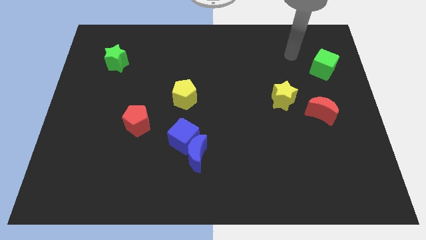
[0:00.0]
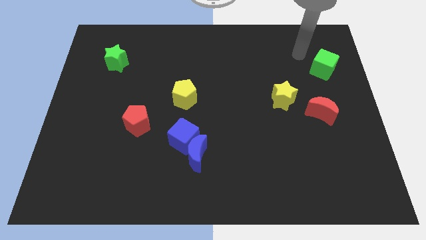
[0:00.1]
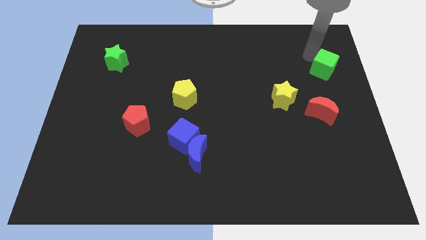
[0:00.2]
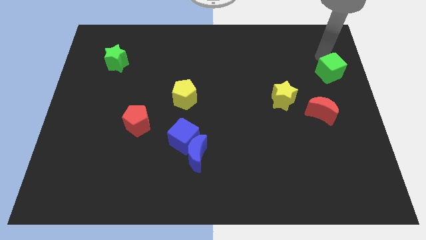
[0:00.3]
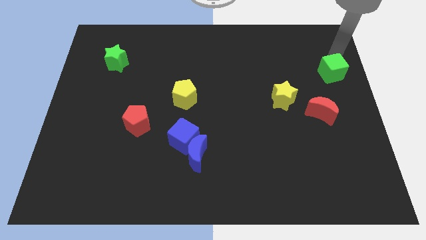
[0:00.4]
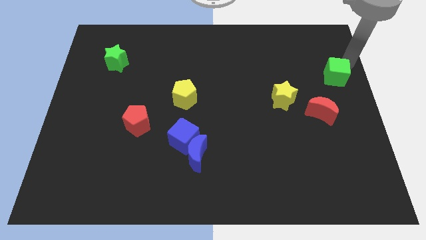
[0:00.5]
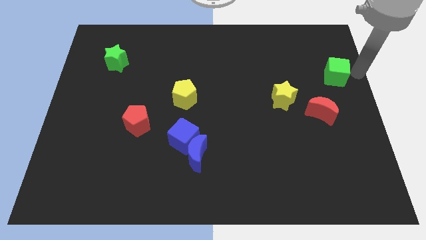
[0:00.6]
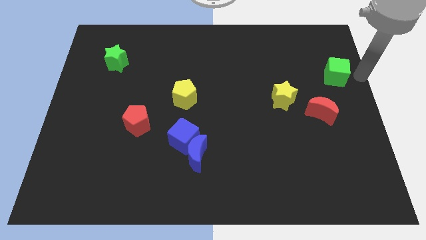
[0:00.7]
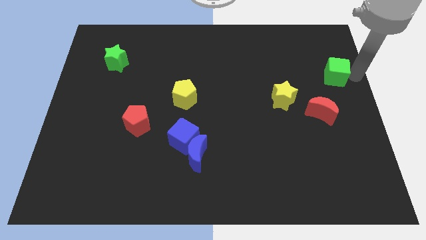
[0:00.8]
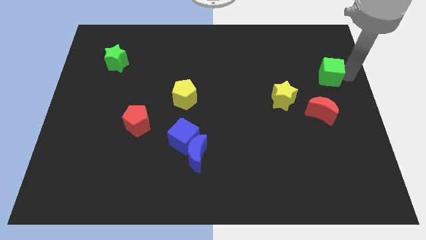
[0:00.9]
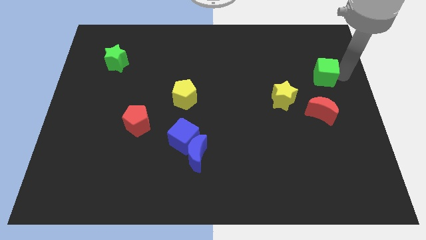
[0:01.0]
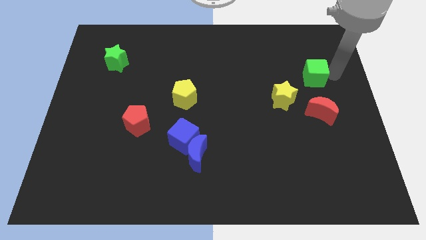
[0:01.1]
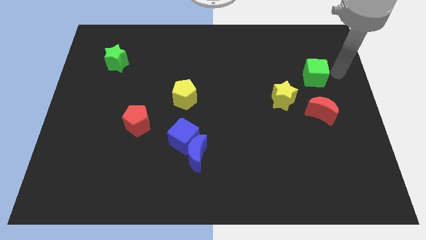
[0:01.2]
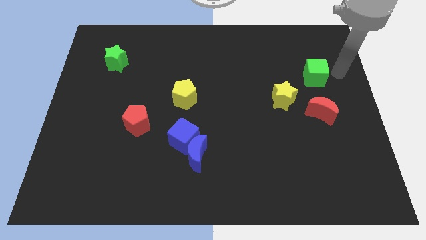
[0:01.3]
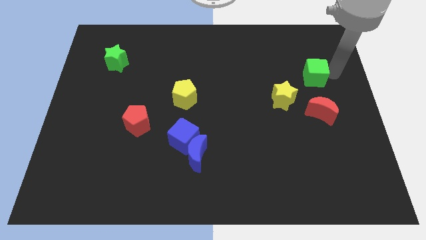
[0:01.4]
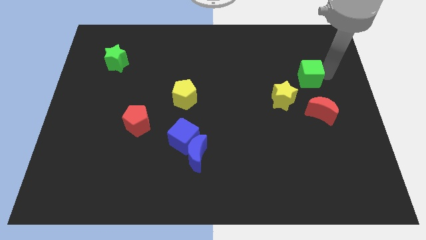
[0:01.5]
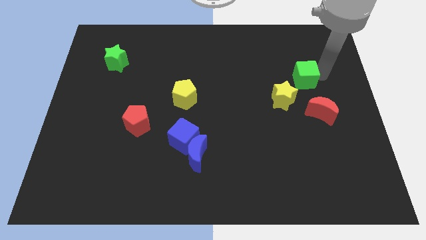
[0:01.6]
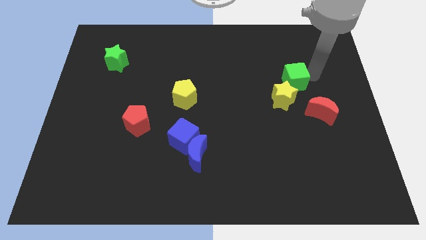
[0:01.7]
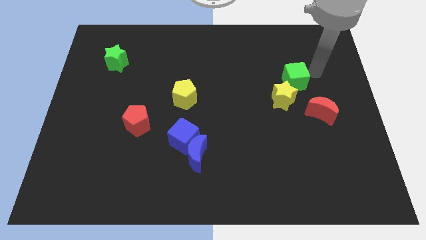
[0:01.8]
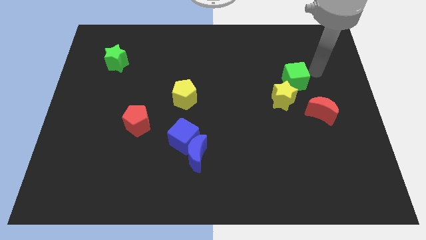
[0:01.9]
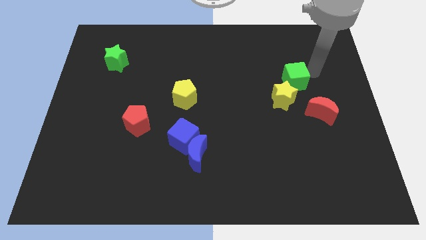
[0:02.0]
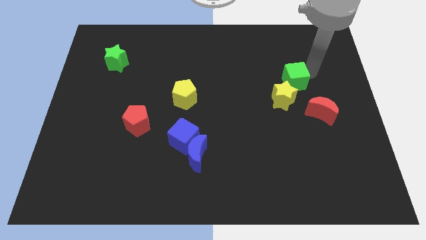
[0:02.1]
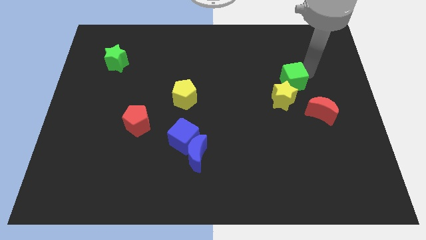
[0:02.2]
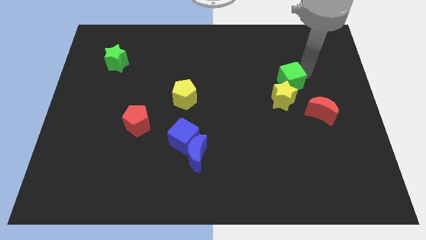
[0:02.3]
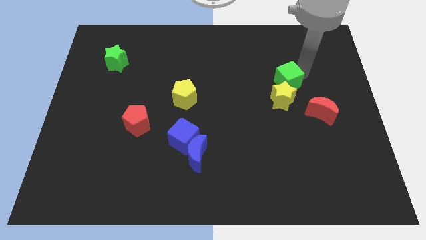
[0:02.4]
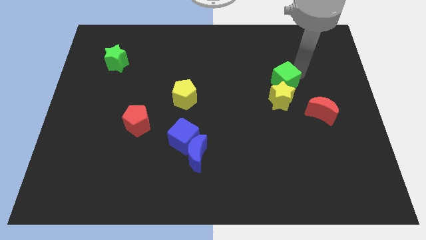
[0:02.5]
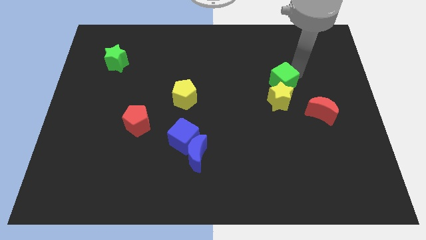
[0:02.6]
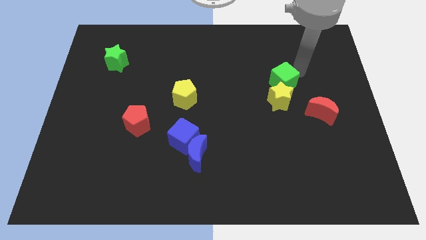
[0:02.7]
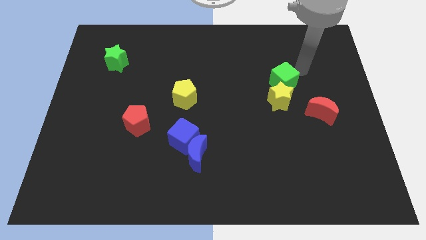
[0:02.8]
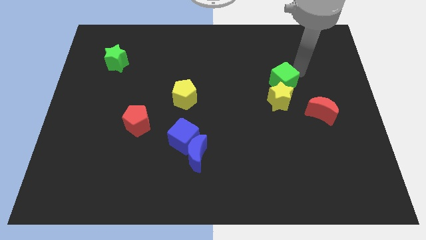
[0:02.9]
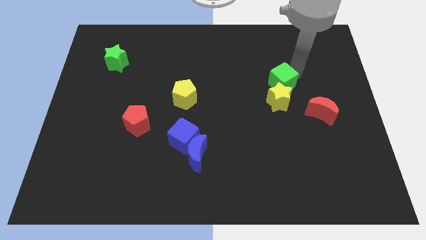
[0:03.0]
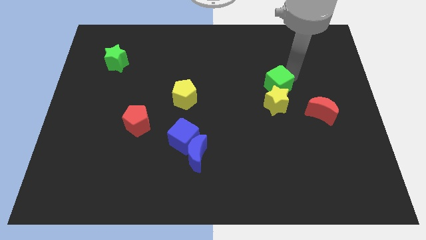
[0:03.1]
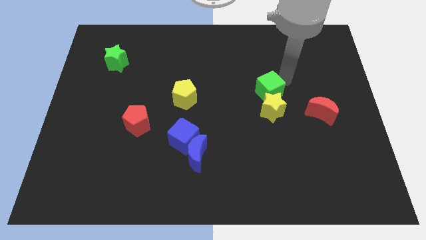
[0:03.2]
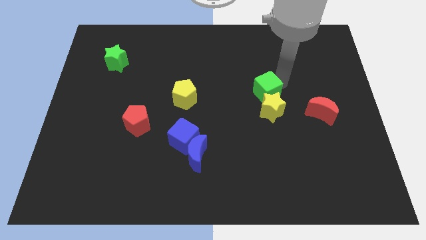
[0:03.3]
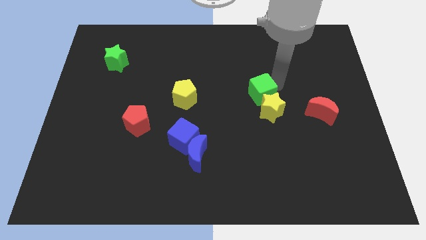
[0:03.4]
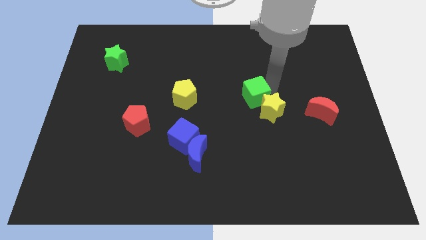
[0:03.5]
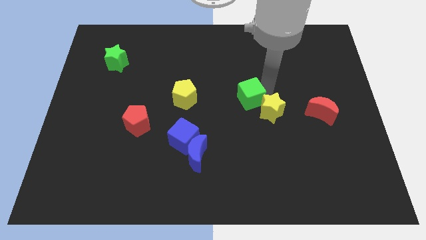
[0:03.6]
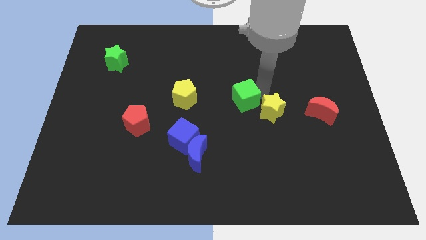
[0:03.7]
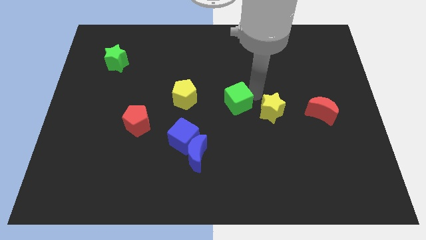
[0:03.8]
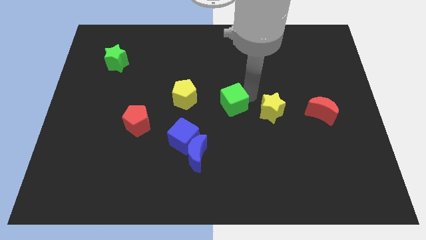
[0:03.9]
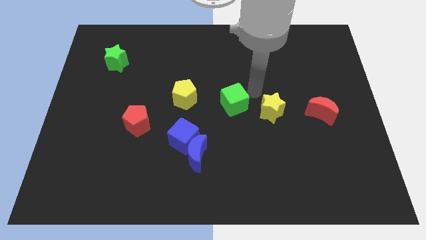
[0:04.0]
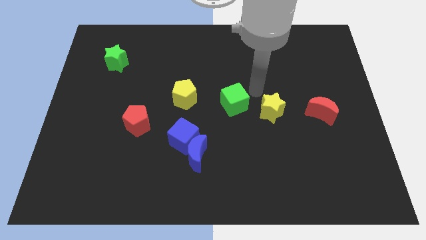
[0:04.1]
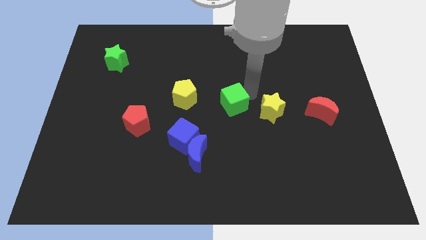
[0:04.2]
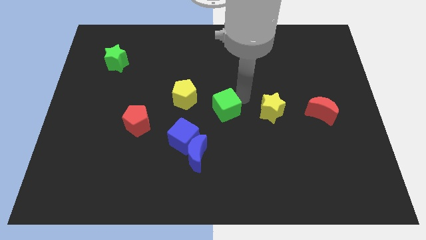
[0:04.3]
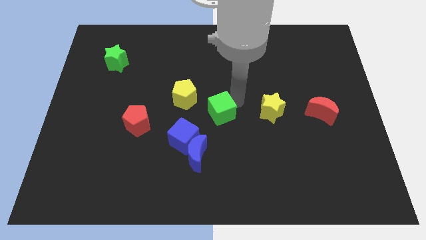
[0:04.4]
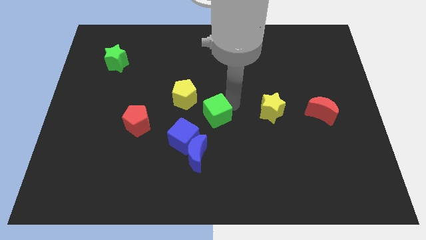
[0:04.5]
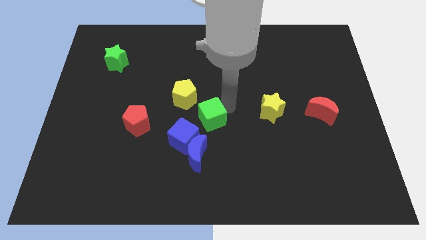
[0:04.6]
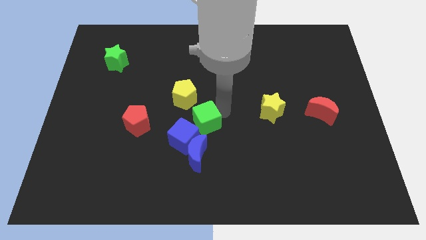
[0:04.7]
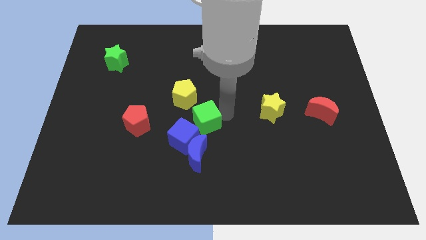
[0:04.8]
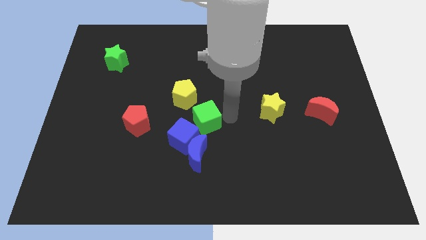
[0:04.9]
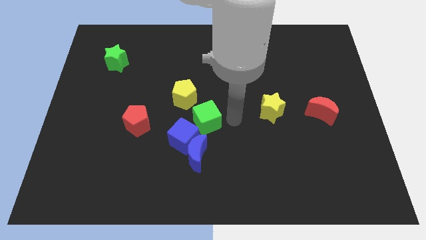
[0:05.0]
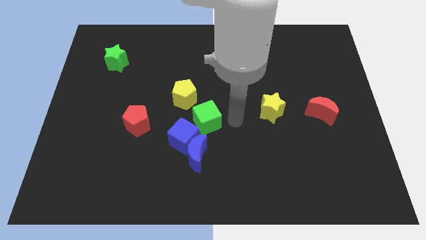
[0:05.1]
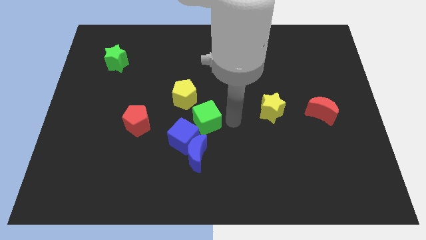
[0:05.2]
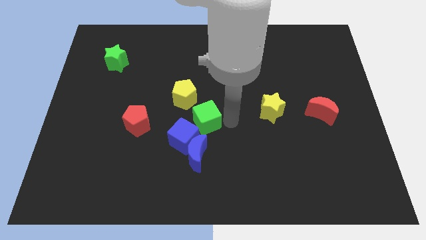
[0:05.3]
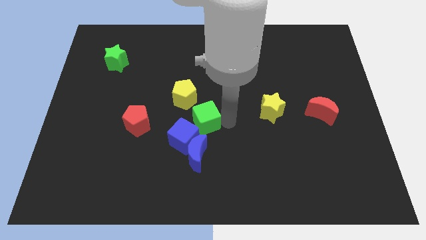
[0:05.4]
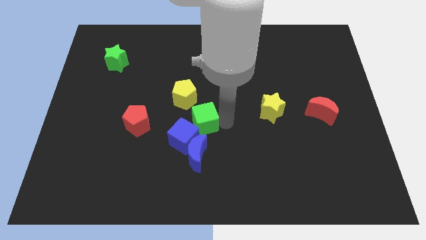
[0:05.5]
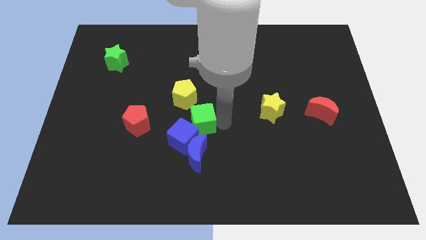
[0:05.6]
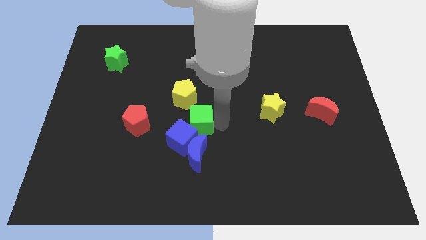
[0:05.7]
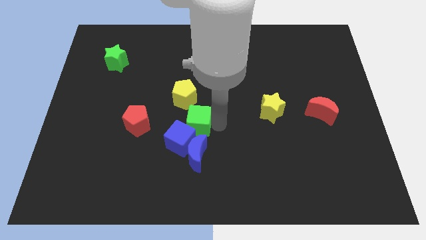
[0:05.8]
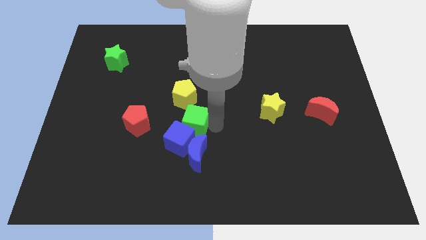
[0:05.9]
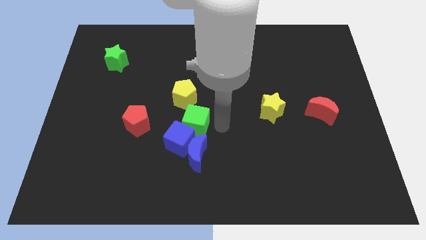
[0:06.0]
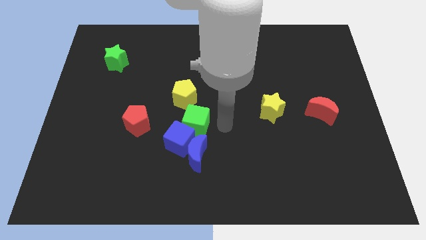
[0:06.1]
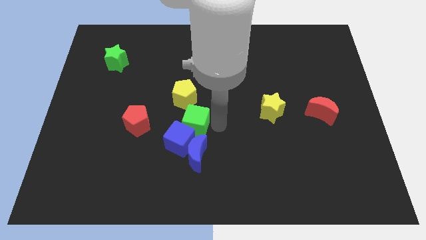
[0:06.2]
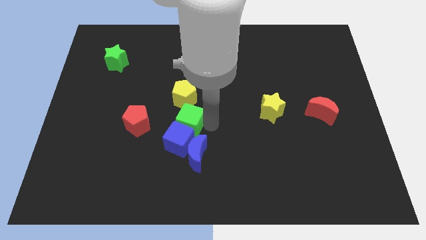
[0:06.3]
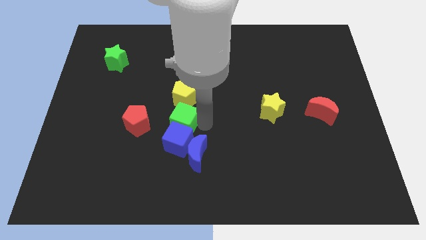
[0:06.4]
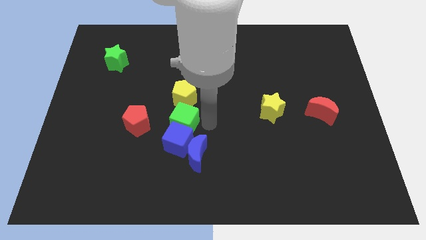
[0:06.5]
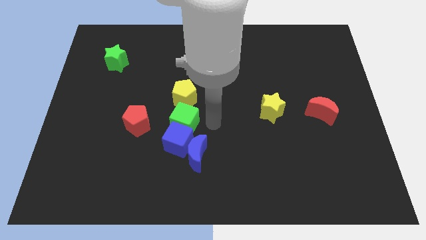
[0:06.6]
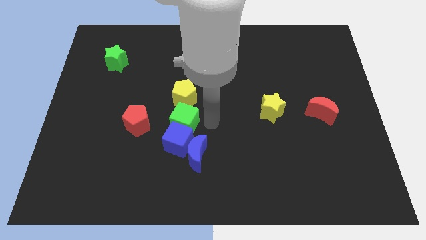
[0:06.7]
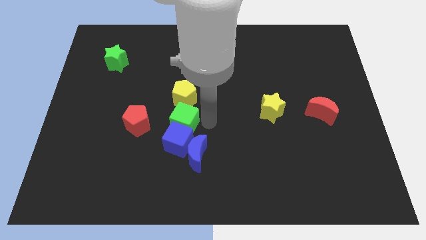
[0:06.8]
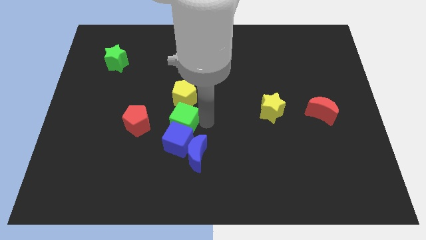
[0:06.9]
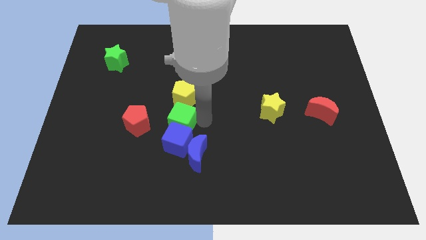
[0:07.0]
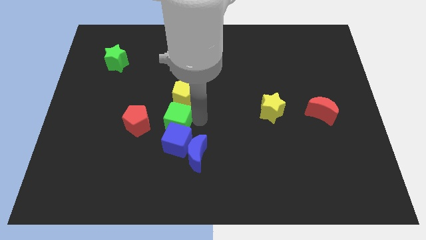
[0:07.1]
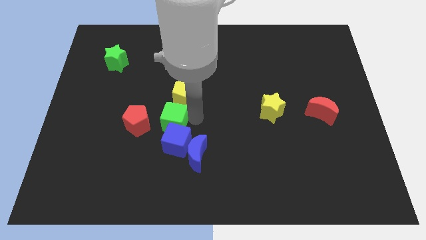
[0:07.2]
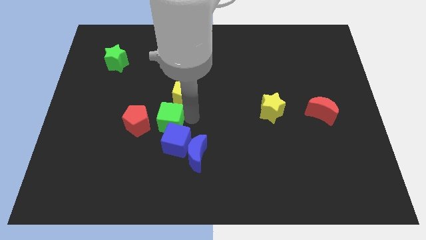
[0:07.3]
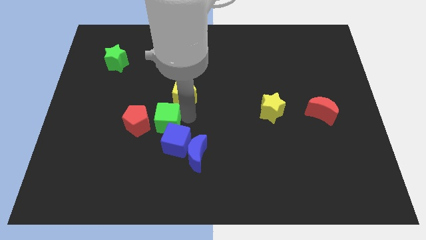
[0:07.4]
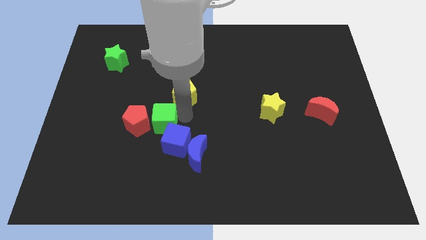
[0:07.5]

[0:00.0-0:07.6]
slide the green cube close to the red pentagon
